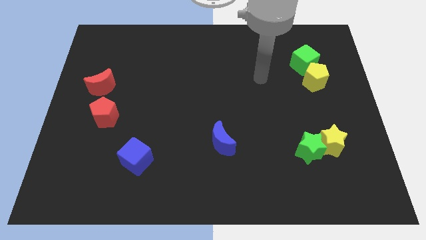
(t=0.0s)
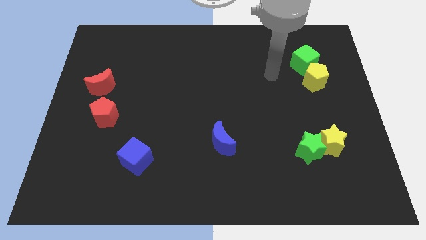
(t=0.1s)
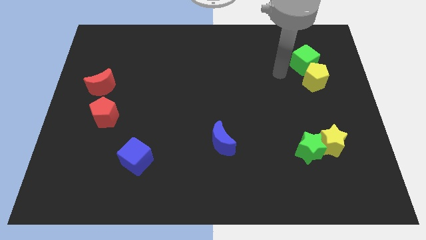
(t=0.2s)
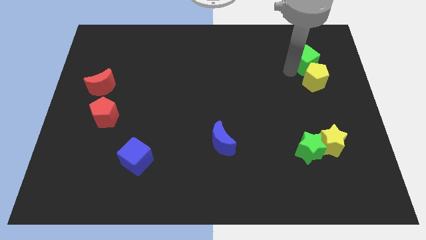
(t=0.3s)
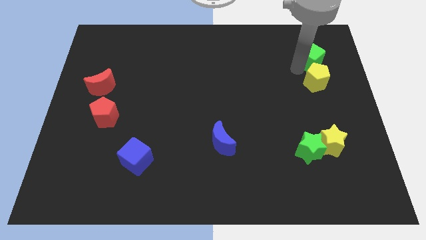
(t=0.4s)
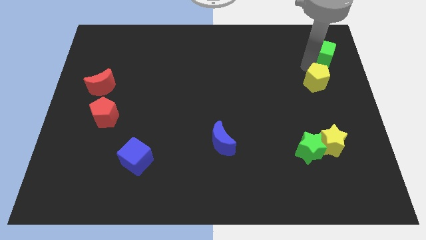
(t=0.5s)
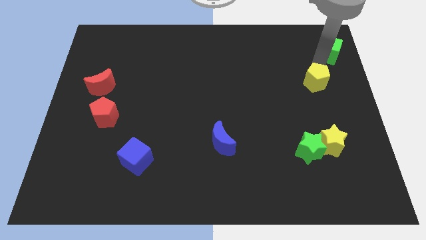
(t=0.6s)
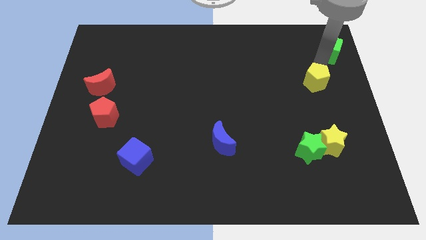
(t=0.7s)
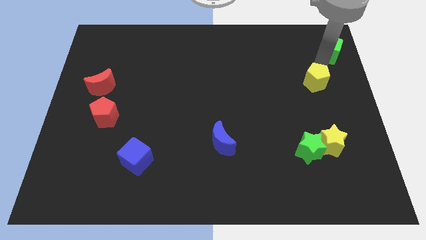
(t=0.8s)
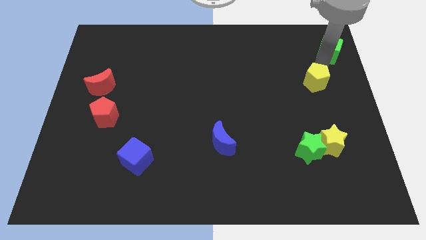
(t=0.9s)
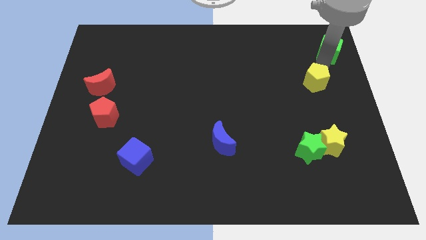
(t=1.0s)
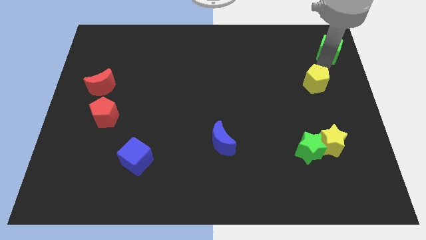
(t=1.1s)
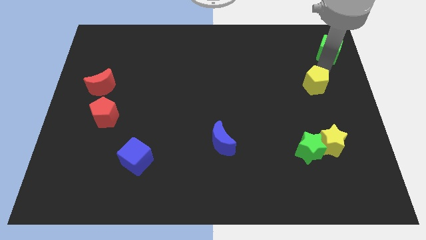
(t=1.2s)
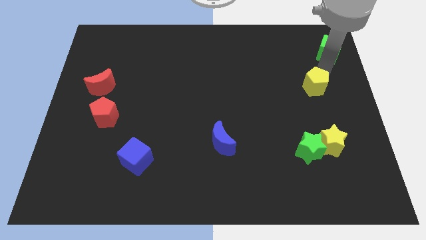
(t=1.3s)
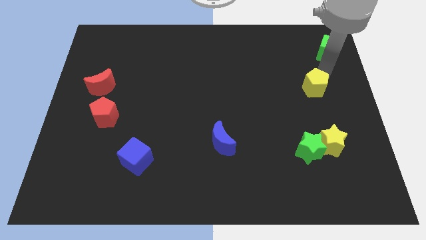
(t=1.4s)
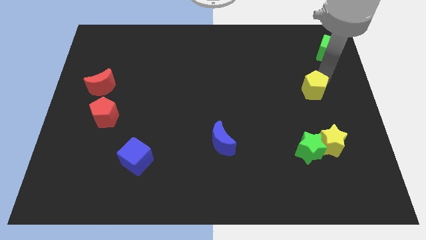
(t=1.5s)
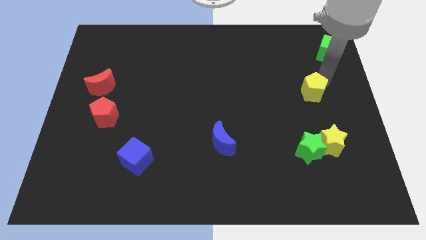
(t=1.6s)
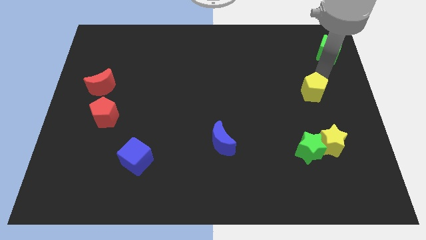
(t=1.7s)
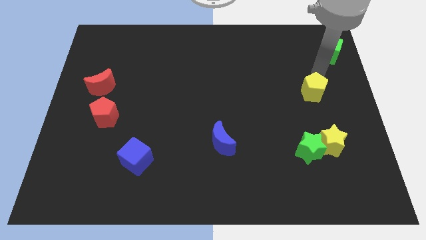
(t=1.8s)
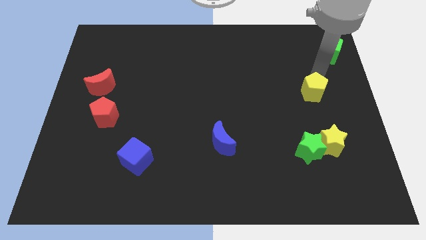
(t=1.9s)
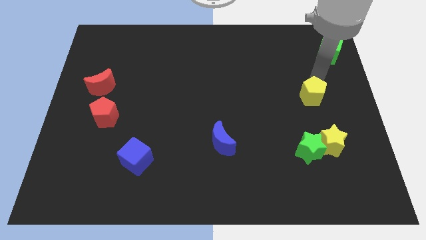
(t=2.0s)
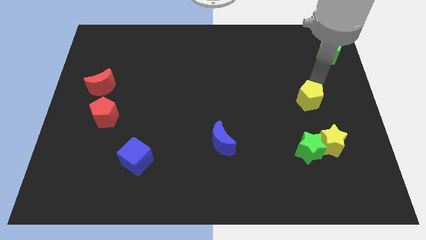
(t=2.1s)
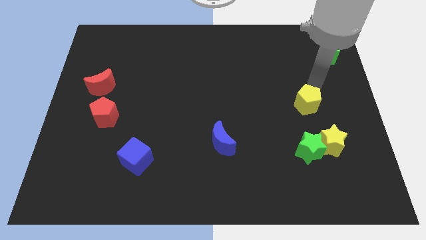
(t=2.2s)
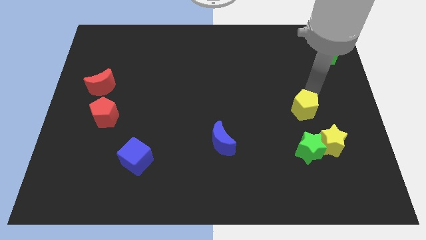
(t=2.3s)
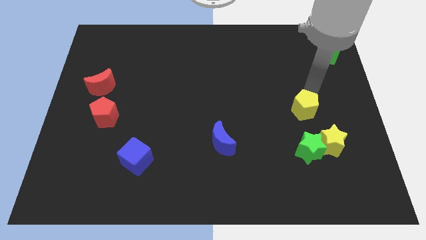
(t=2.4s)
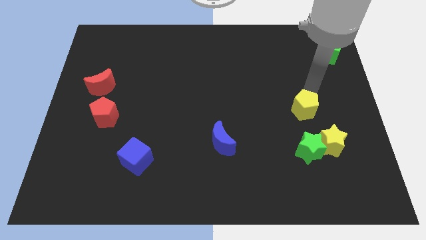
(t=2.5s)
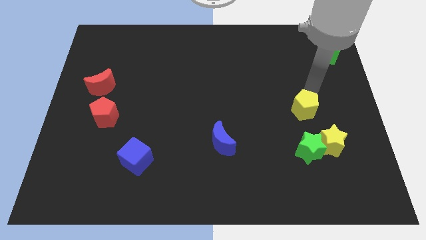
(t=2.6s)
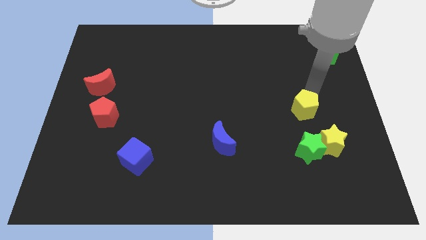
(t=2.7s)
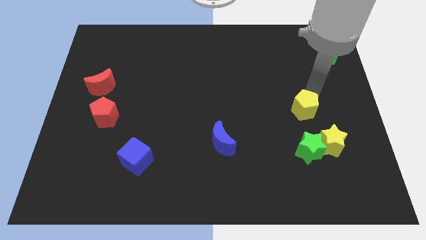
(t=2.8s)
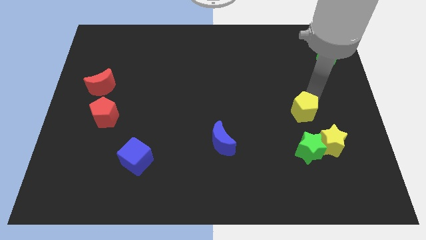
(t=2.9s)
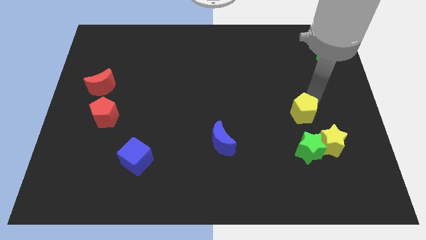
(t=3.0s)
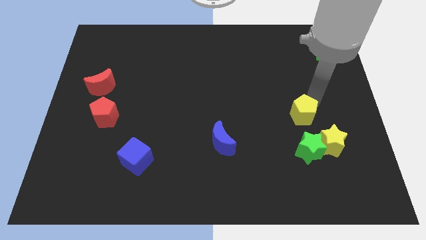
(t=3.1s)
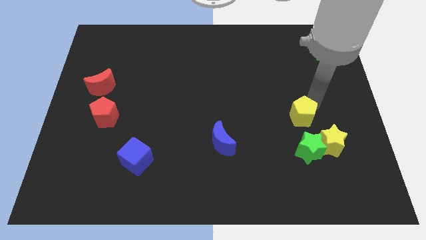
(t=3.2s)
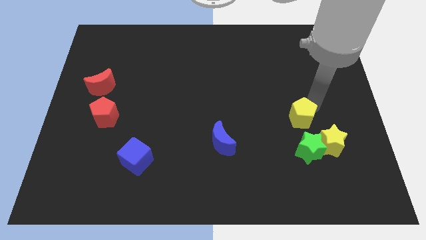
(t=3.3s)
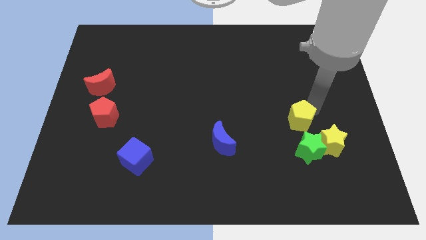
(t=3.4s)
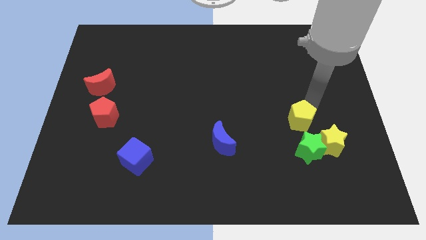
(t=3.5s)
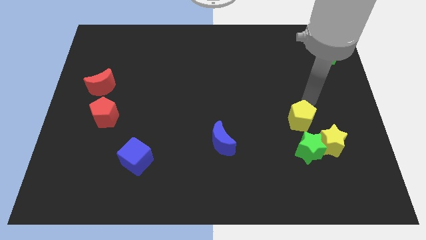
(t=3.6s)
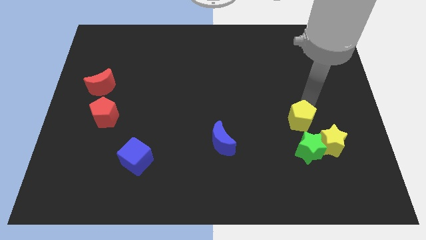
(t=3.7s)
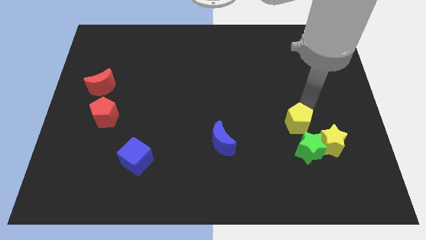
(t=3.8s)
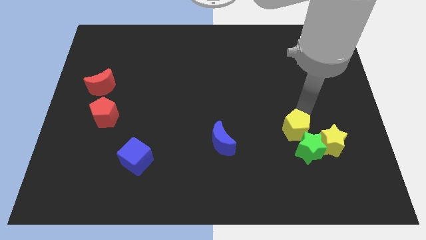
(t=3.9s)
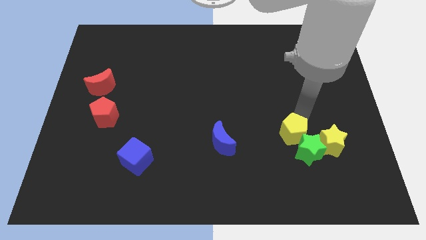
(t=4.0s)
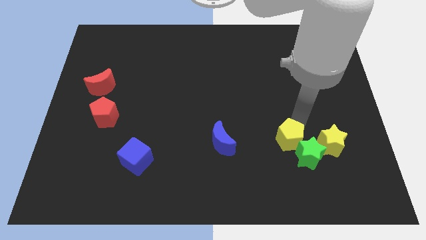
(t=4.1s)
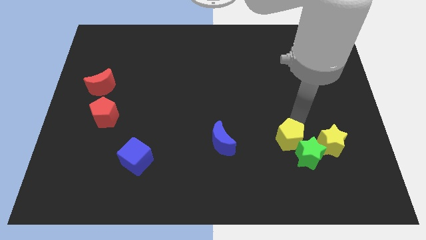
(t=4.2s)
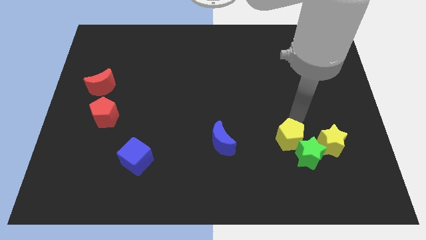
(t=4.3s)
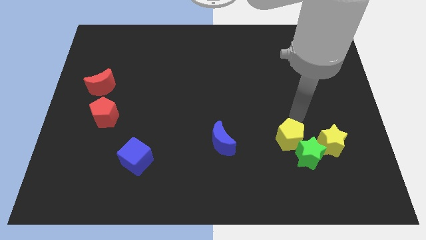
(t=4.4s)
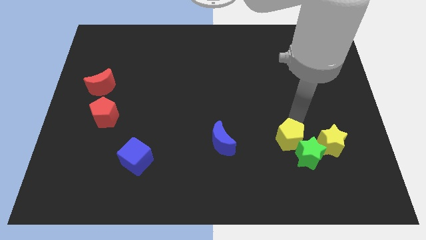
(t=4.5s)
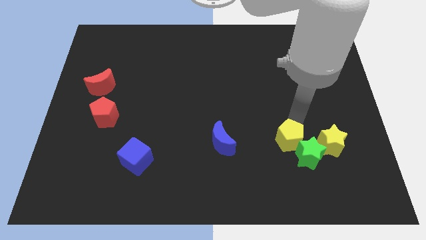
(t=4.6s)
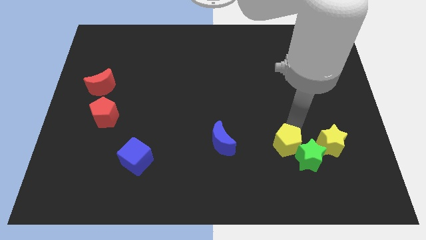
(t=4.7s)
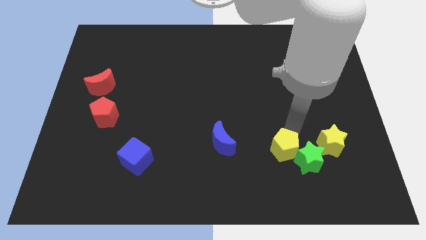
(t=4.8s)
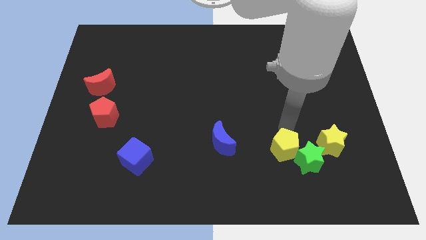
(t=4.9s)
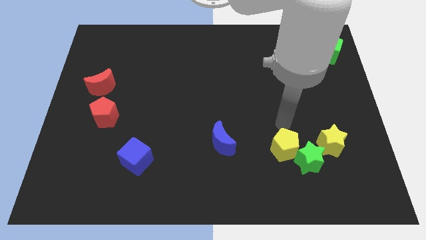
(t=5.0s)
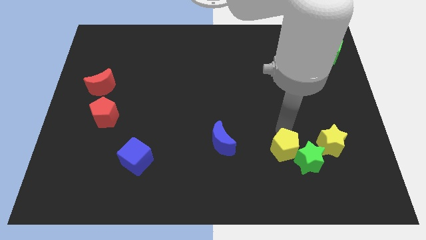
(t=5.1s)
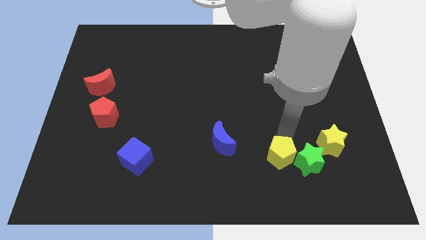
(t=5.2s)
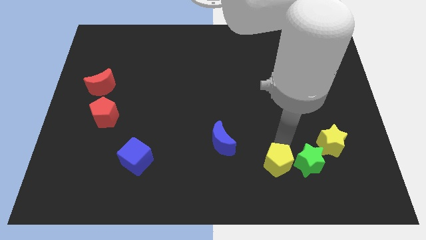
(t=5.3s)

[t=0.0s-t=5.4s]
slide the yellow pentagon to the bottom left of the green star

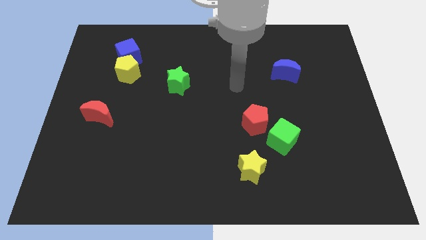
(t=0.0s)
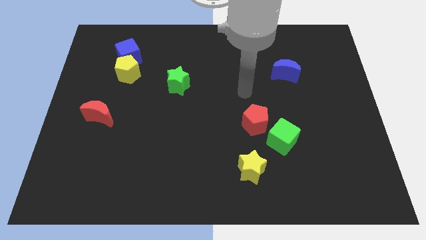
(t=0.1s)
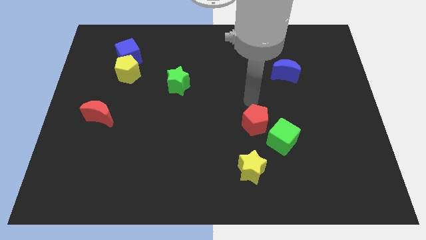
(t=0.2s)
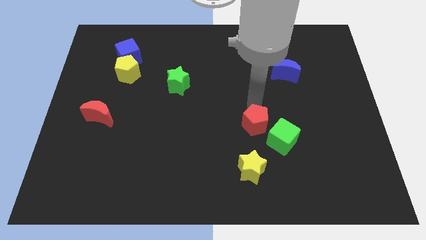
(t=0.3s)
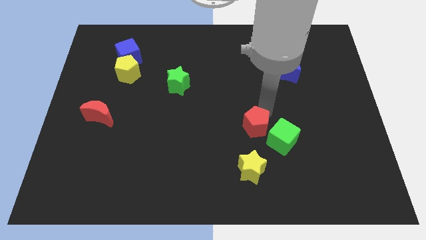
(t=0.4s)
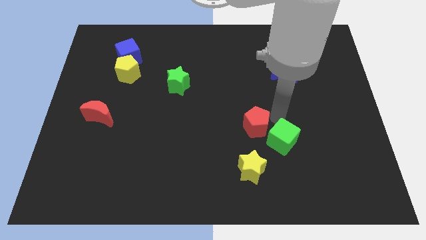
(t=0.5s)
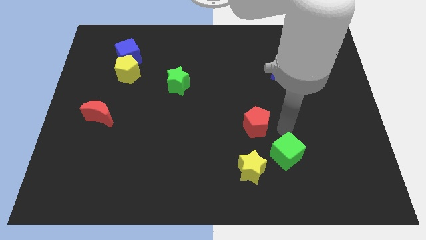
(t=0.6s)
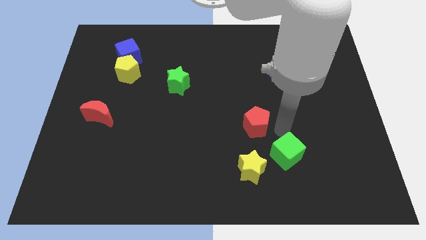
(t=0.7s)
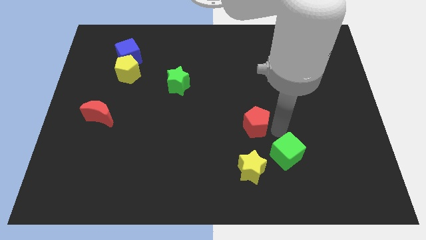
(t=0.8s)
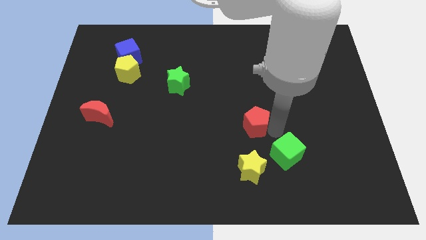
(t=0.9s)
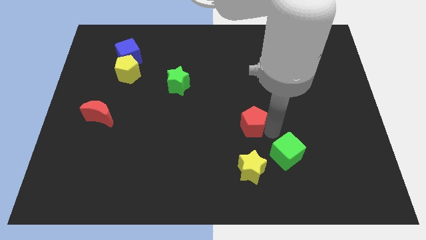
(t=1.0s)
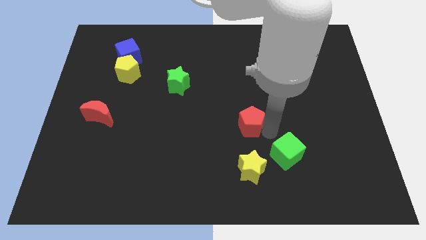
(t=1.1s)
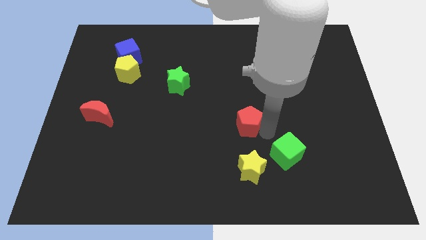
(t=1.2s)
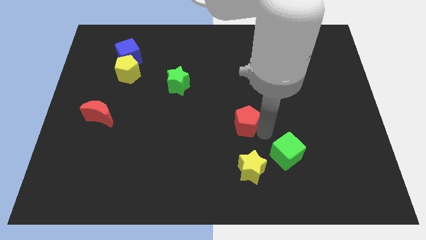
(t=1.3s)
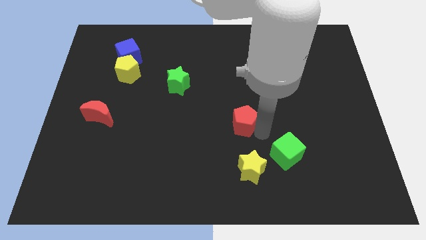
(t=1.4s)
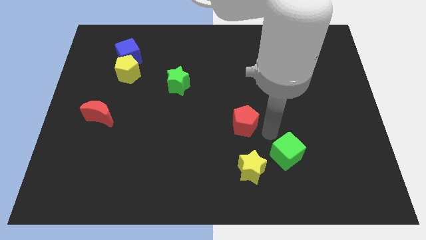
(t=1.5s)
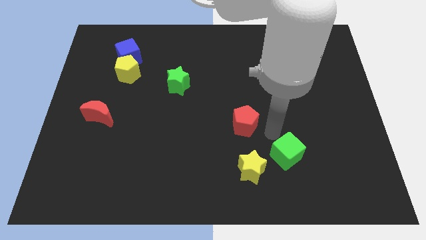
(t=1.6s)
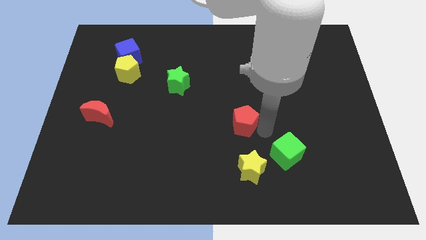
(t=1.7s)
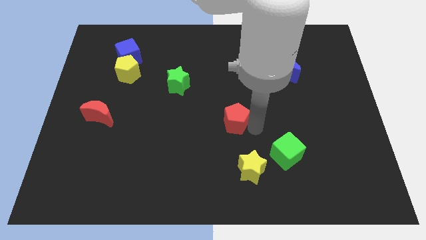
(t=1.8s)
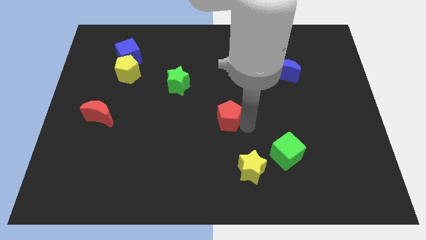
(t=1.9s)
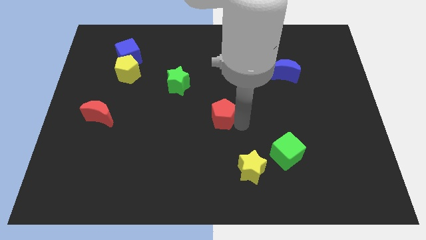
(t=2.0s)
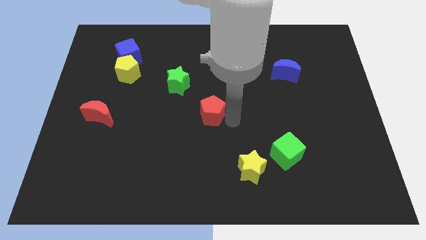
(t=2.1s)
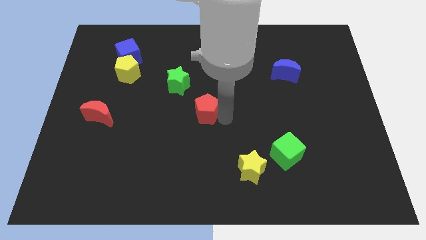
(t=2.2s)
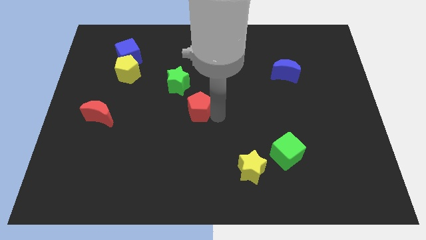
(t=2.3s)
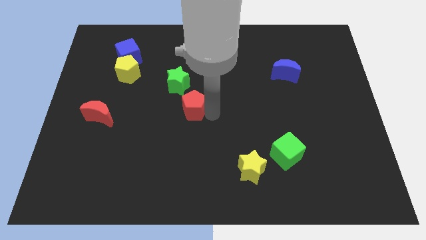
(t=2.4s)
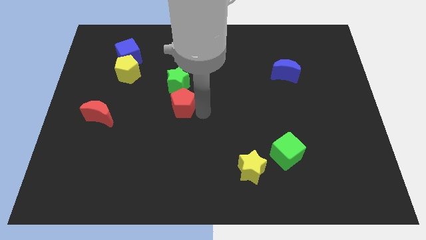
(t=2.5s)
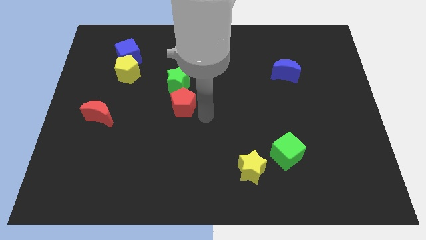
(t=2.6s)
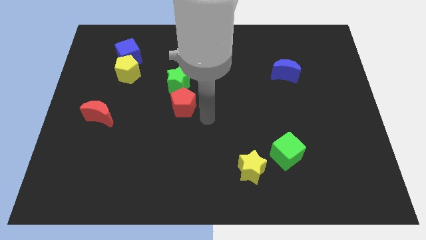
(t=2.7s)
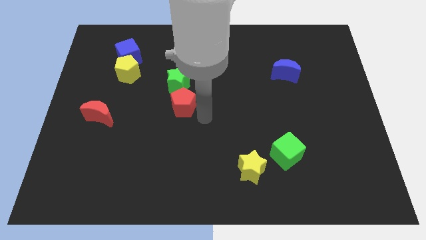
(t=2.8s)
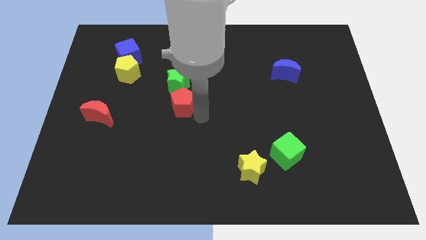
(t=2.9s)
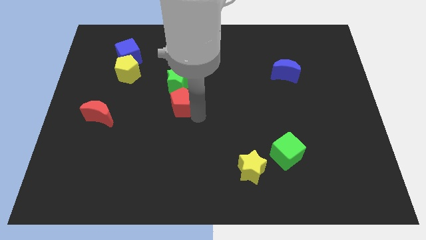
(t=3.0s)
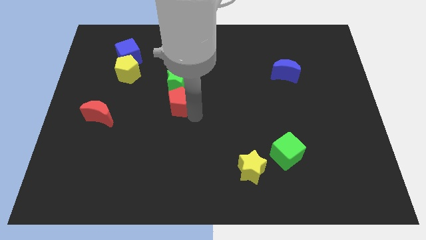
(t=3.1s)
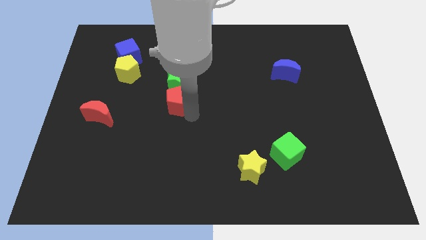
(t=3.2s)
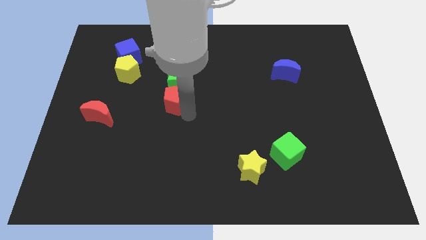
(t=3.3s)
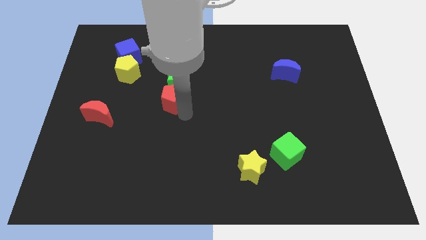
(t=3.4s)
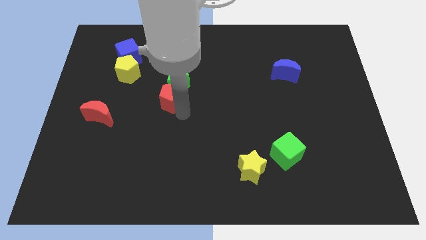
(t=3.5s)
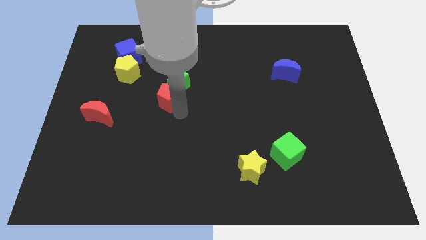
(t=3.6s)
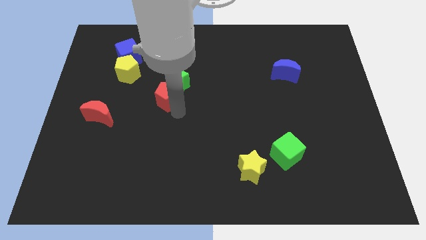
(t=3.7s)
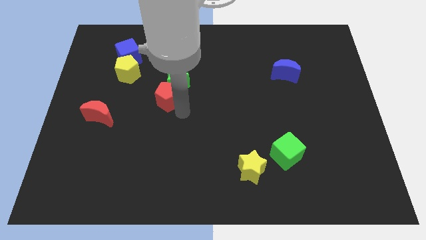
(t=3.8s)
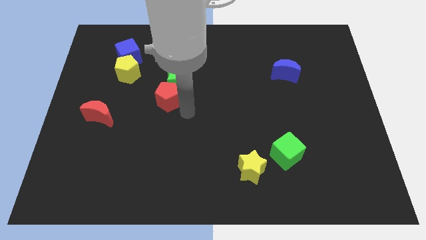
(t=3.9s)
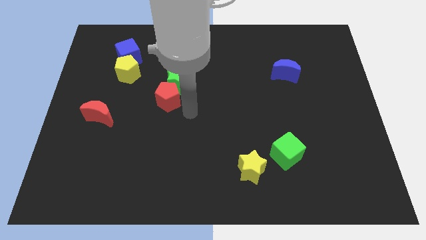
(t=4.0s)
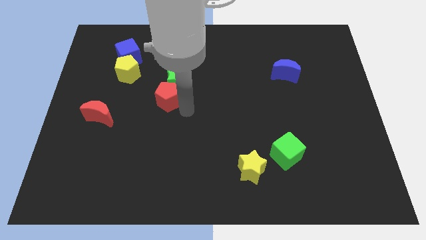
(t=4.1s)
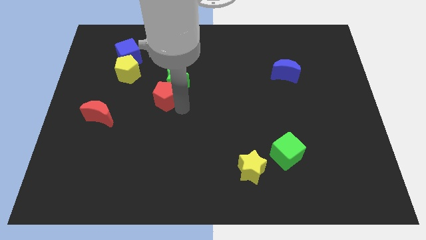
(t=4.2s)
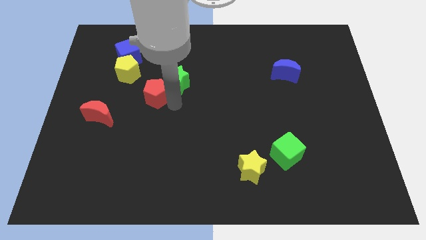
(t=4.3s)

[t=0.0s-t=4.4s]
move the red pentagon to the left of the green star
